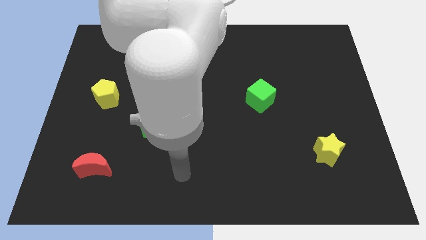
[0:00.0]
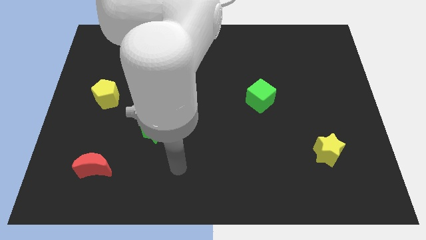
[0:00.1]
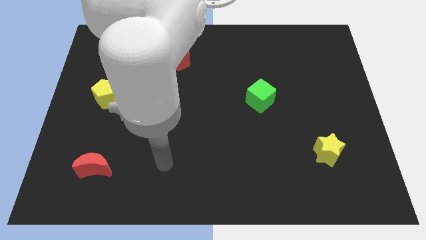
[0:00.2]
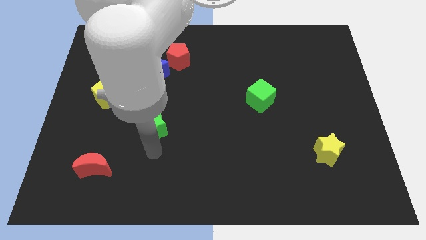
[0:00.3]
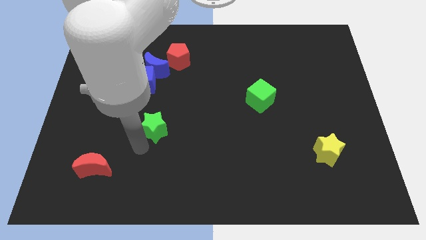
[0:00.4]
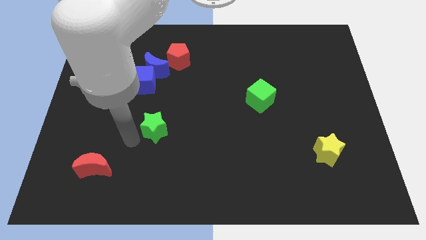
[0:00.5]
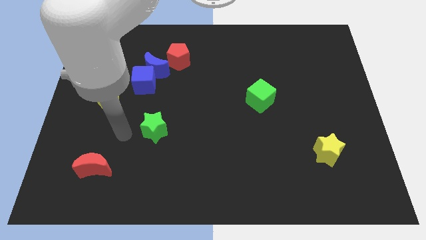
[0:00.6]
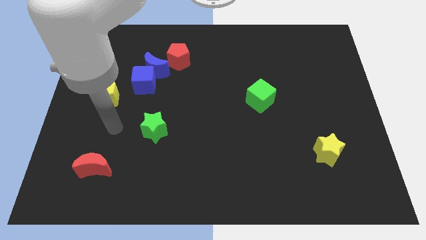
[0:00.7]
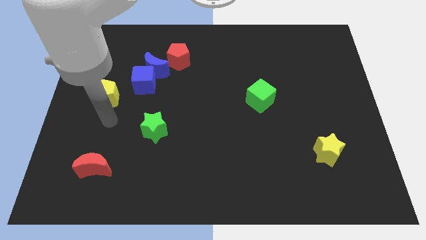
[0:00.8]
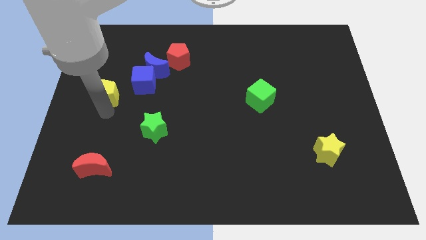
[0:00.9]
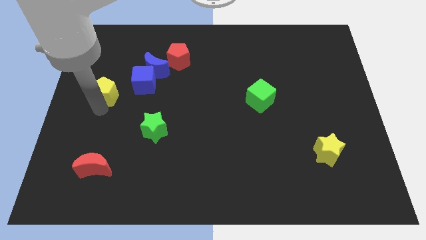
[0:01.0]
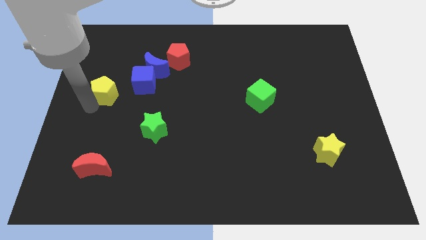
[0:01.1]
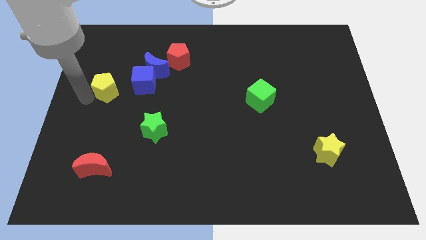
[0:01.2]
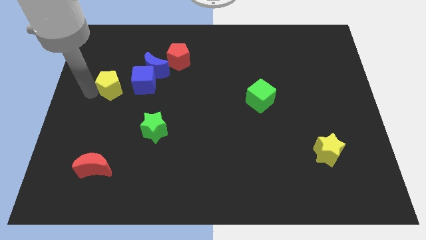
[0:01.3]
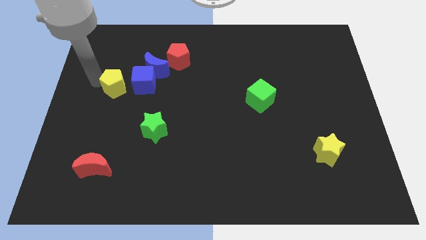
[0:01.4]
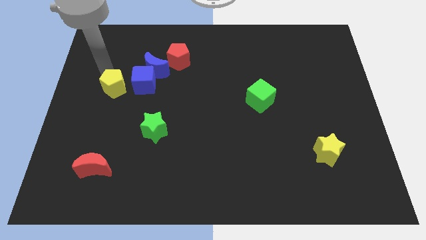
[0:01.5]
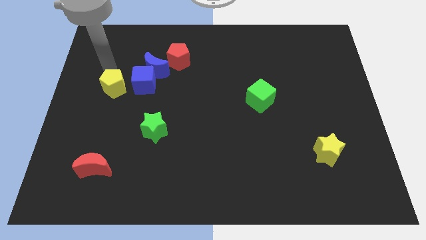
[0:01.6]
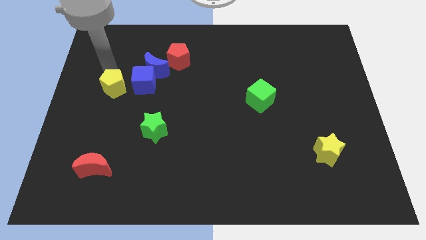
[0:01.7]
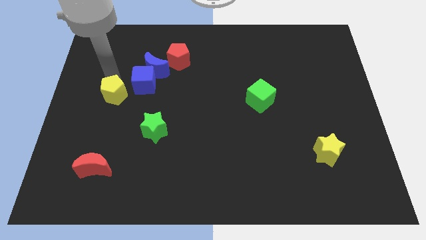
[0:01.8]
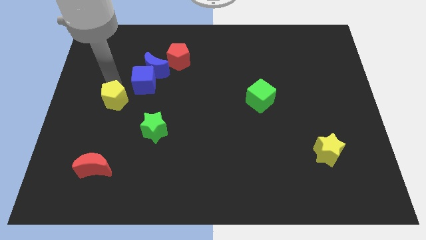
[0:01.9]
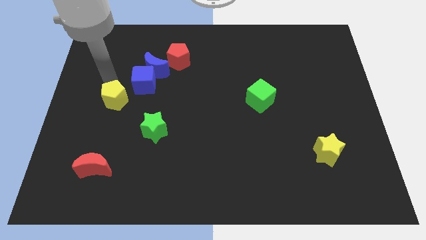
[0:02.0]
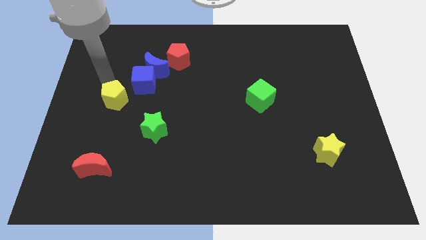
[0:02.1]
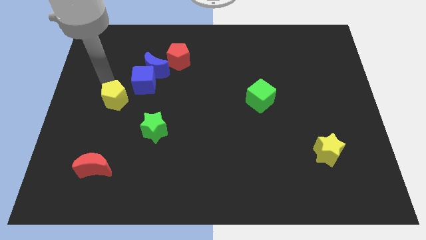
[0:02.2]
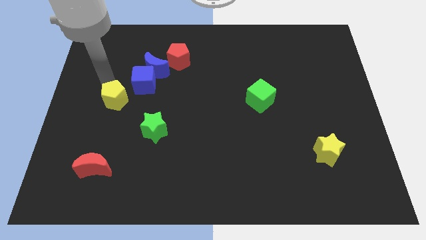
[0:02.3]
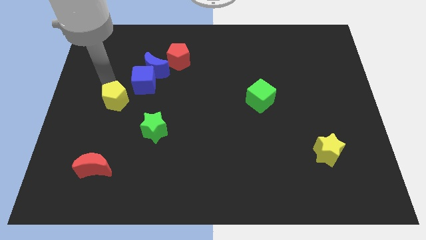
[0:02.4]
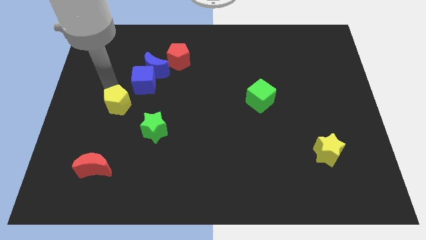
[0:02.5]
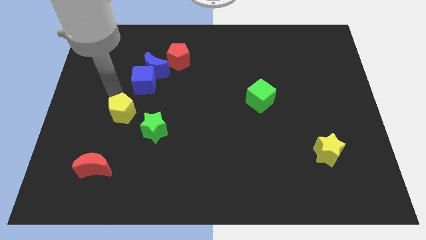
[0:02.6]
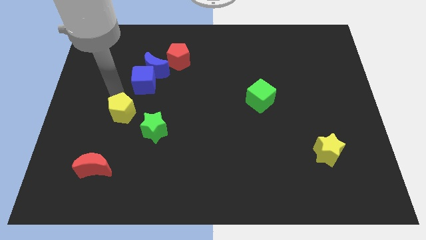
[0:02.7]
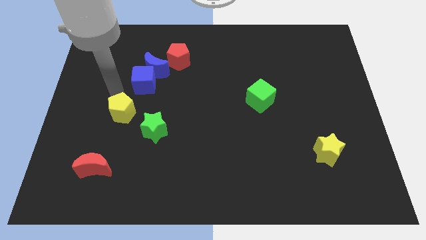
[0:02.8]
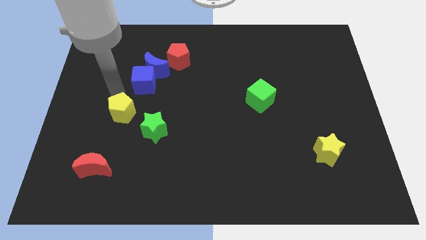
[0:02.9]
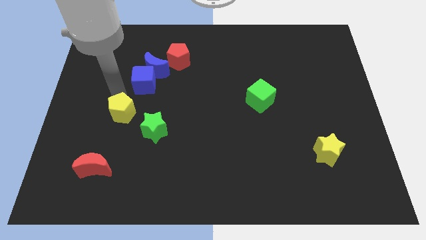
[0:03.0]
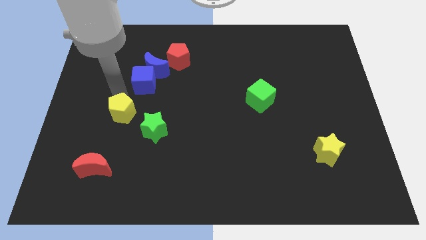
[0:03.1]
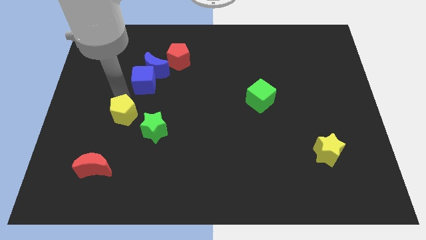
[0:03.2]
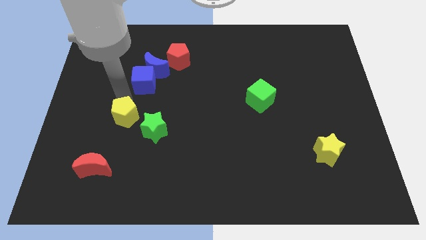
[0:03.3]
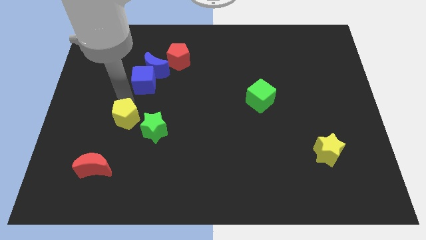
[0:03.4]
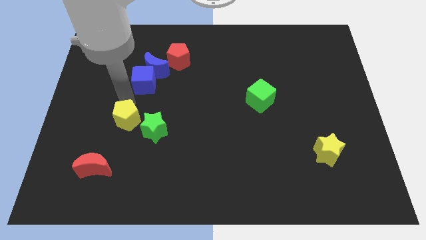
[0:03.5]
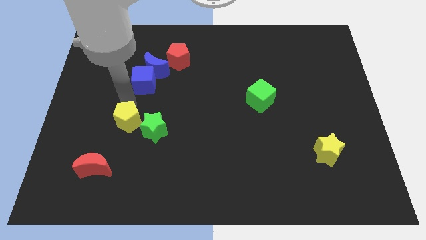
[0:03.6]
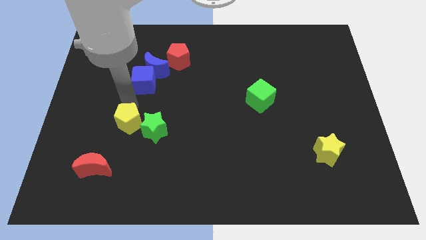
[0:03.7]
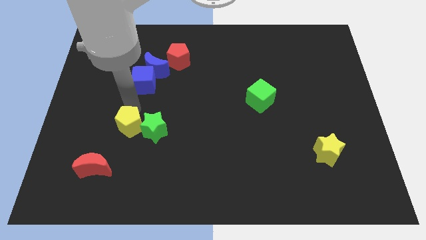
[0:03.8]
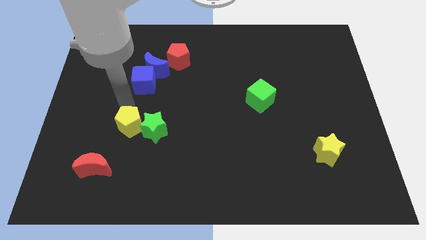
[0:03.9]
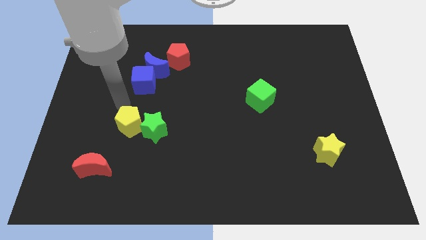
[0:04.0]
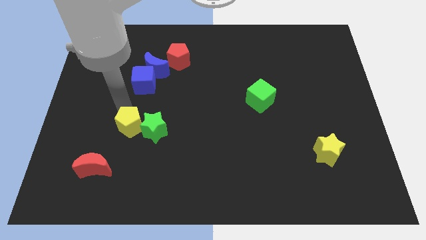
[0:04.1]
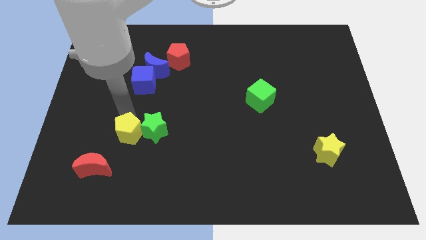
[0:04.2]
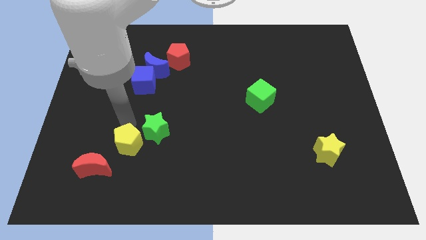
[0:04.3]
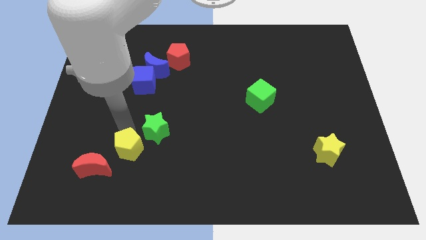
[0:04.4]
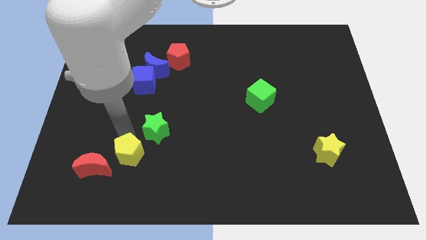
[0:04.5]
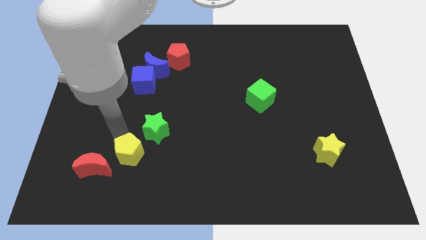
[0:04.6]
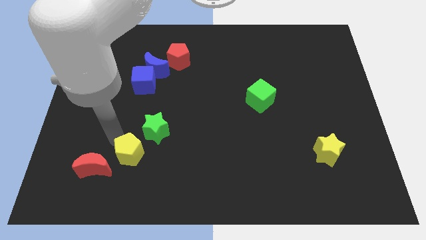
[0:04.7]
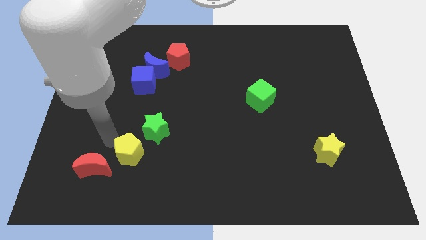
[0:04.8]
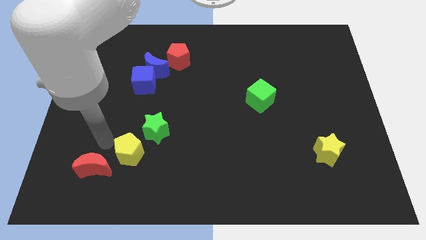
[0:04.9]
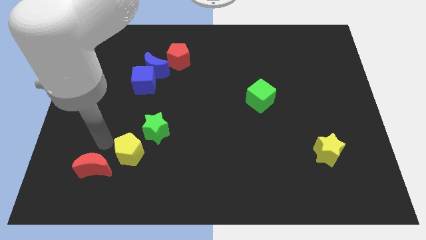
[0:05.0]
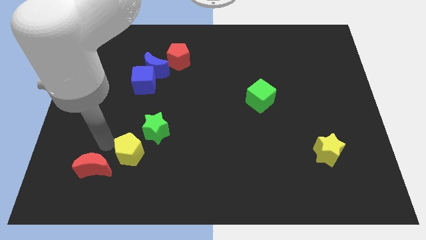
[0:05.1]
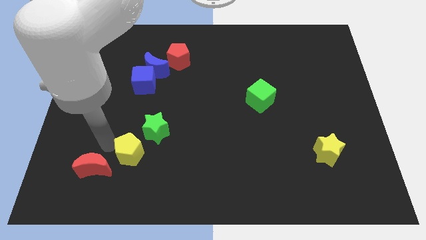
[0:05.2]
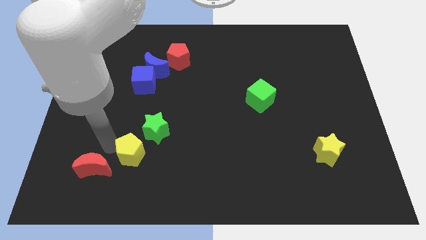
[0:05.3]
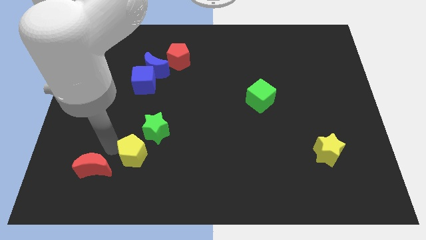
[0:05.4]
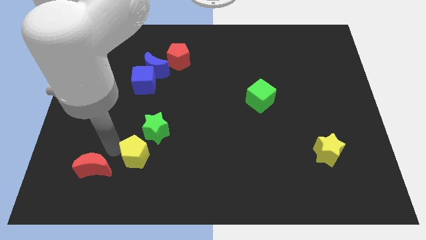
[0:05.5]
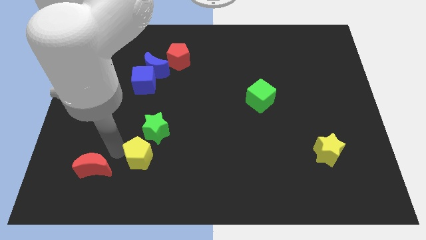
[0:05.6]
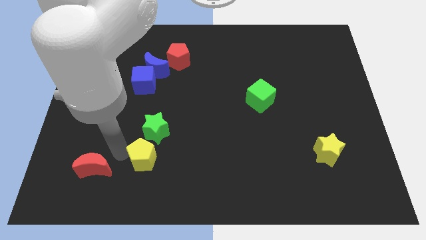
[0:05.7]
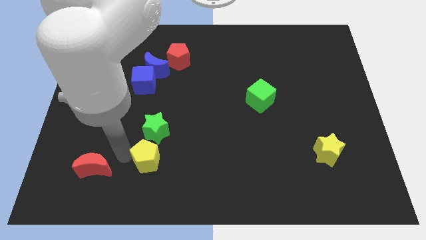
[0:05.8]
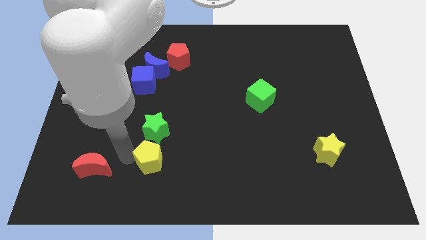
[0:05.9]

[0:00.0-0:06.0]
push the yellow pentagon down and right

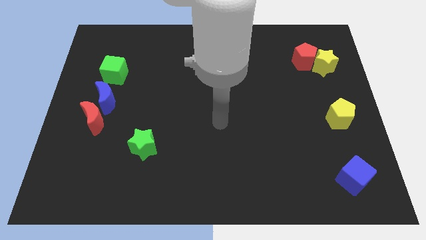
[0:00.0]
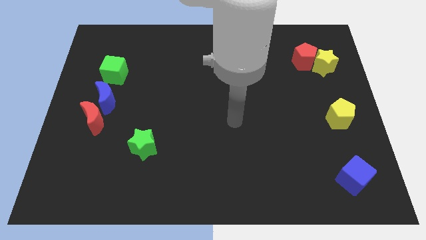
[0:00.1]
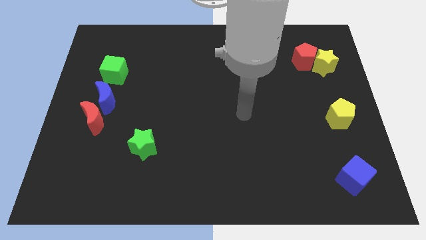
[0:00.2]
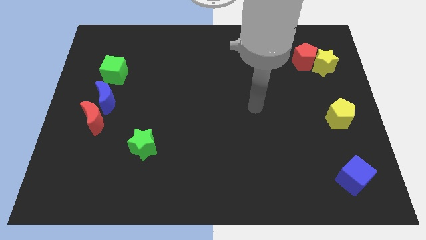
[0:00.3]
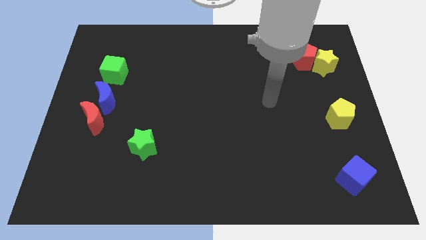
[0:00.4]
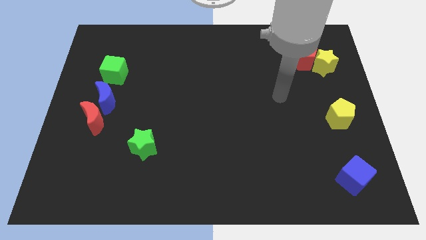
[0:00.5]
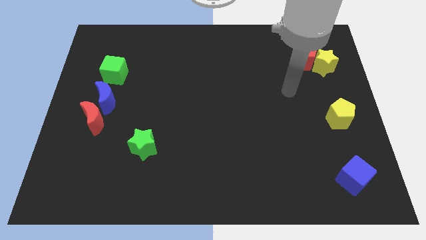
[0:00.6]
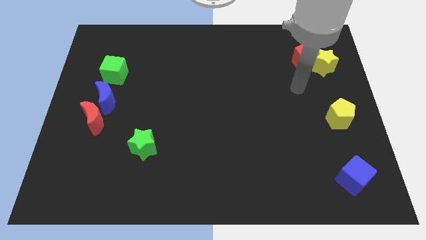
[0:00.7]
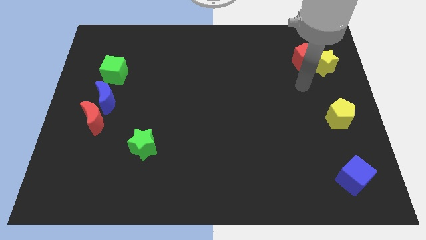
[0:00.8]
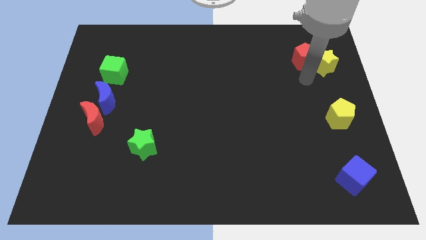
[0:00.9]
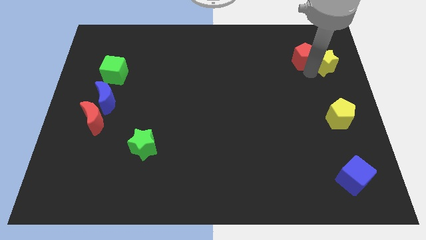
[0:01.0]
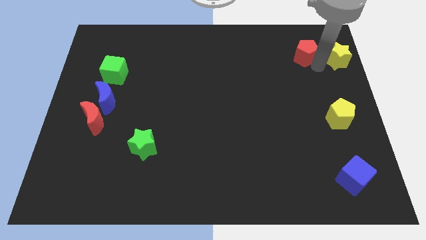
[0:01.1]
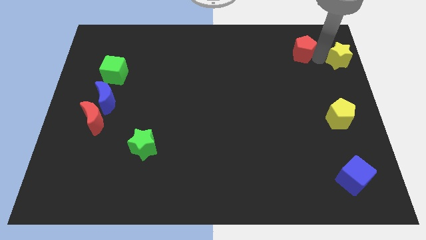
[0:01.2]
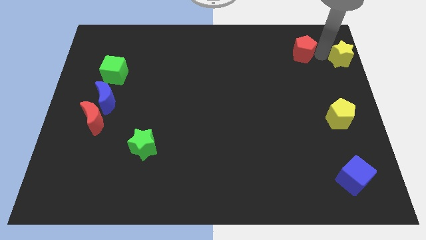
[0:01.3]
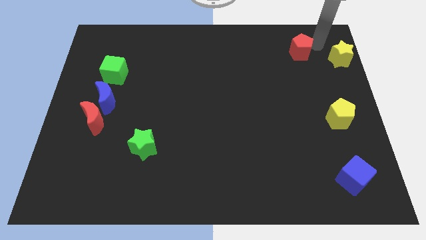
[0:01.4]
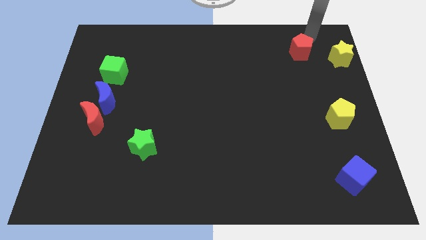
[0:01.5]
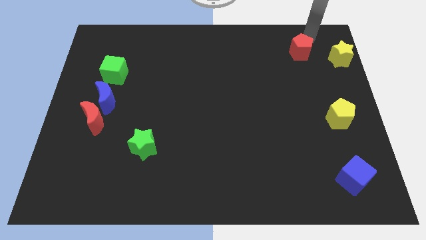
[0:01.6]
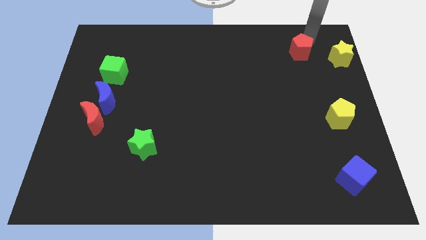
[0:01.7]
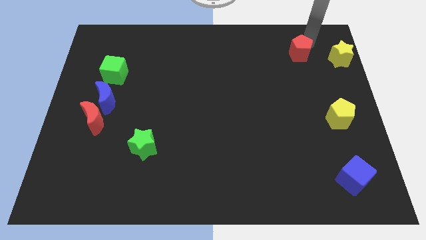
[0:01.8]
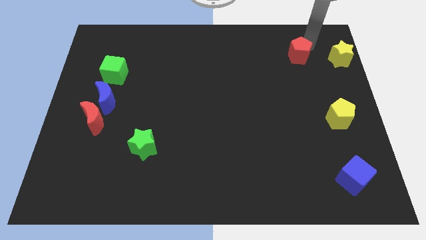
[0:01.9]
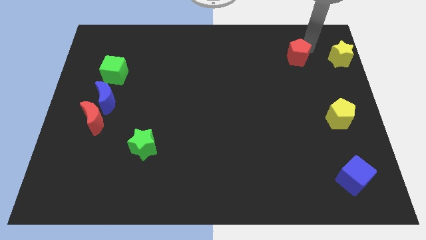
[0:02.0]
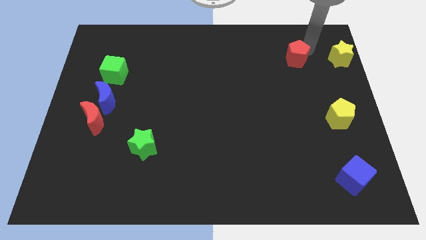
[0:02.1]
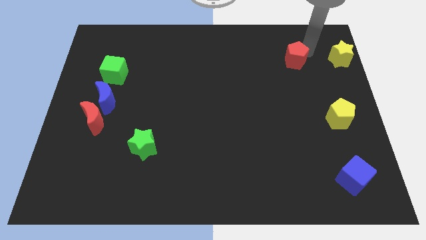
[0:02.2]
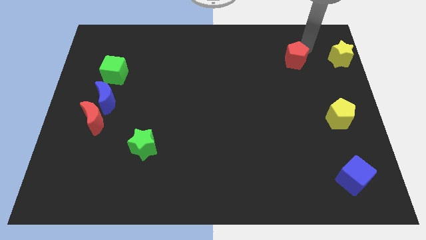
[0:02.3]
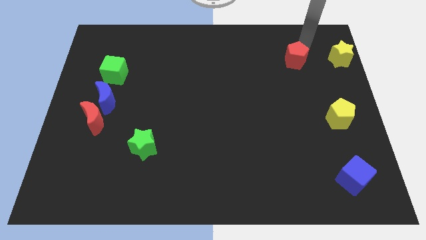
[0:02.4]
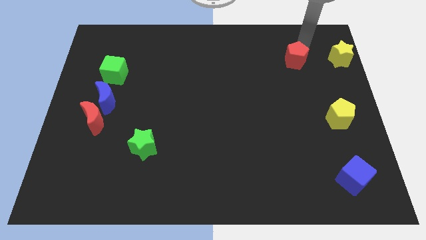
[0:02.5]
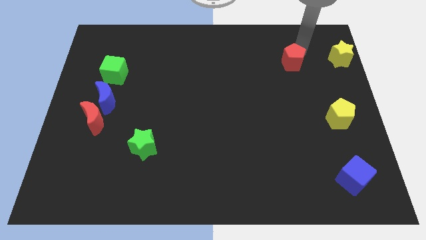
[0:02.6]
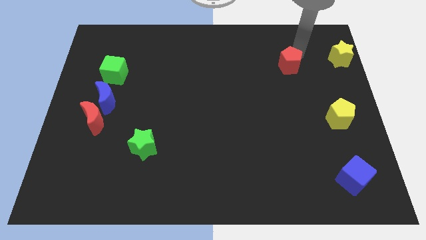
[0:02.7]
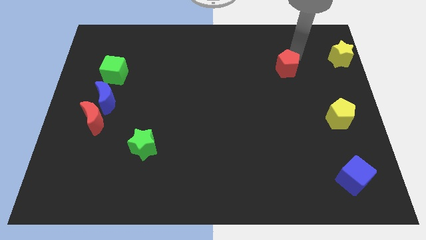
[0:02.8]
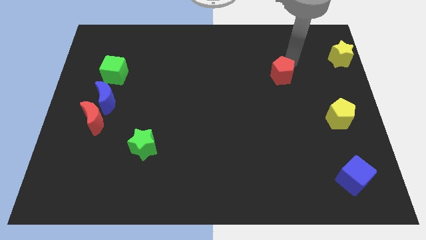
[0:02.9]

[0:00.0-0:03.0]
move the red pentagon a little diagonally downwards and left
